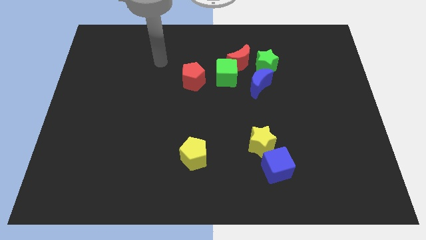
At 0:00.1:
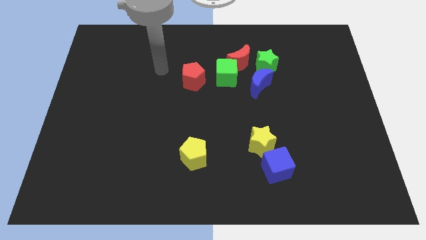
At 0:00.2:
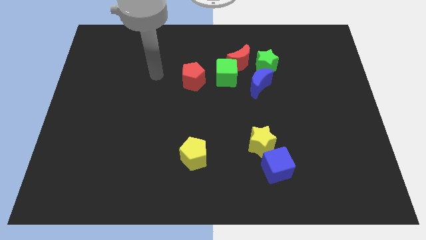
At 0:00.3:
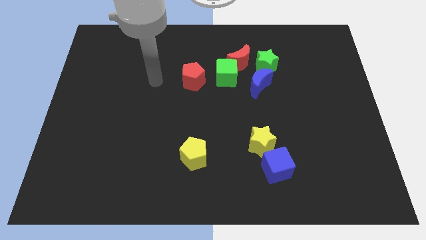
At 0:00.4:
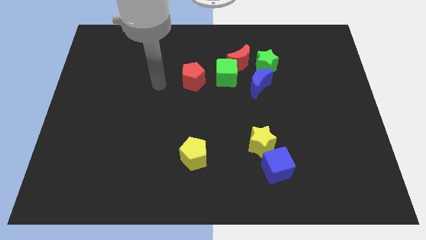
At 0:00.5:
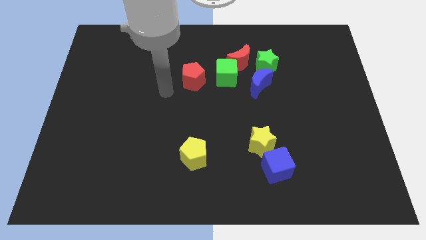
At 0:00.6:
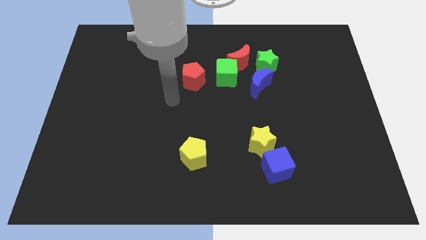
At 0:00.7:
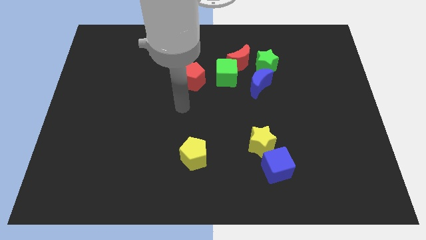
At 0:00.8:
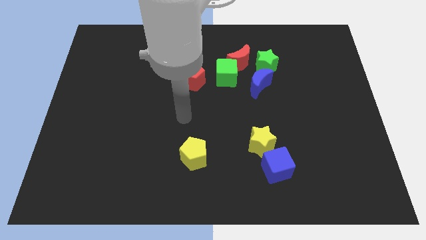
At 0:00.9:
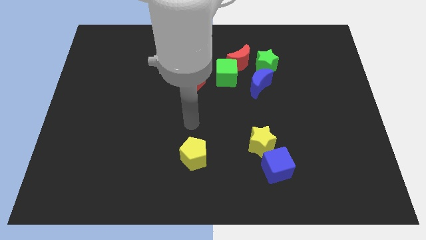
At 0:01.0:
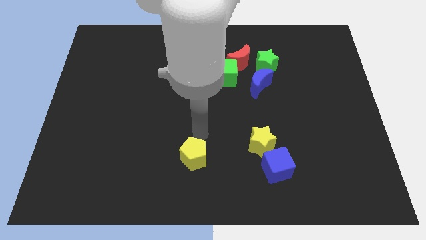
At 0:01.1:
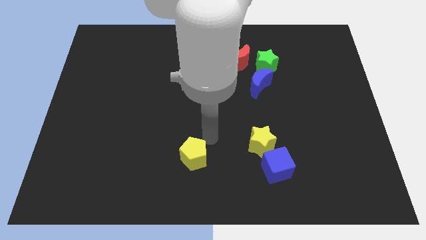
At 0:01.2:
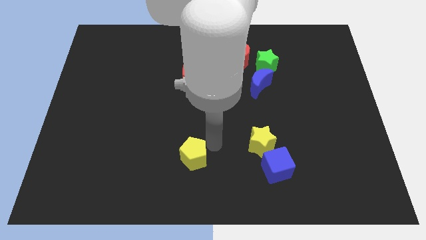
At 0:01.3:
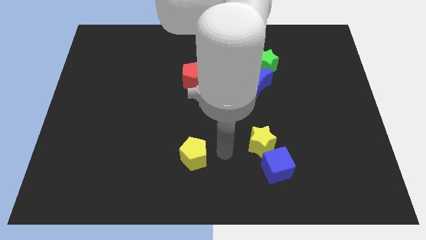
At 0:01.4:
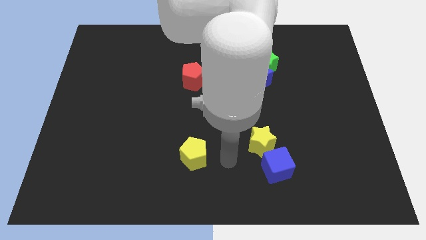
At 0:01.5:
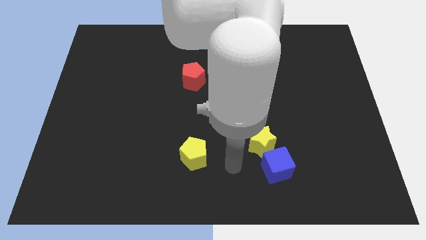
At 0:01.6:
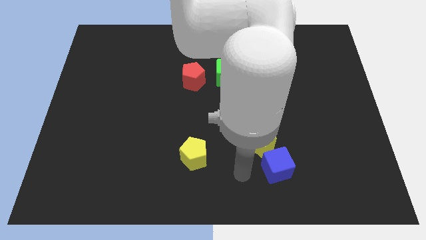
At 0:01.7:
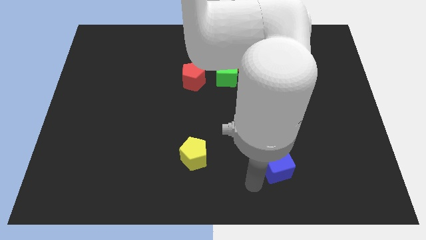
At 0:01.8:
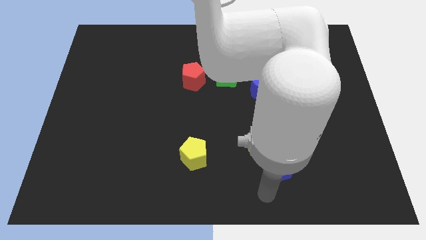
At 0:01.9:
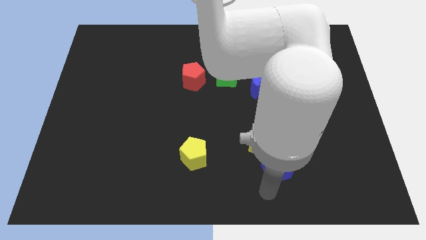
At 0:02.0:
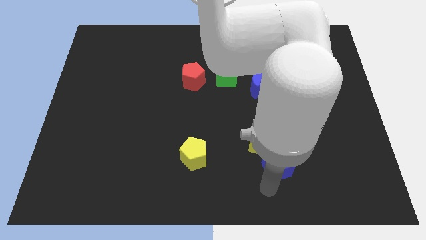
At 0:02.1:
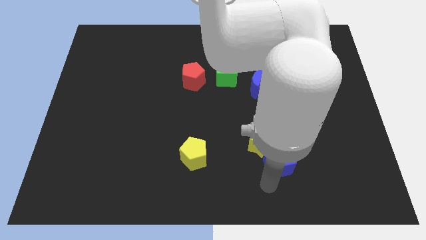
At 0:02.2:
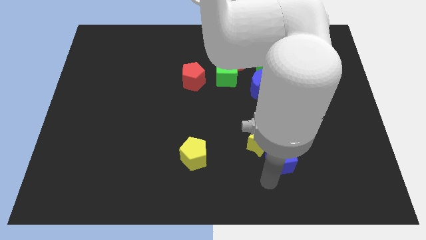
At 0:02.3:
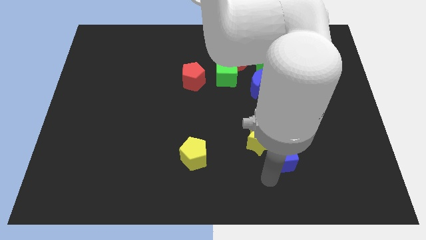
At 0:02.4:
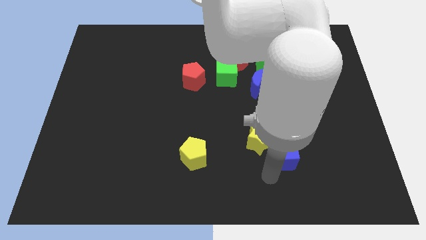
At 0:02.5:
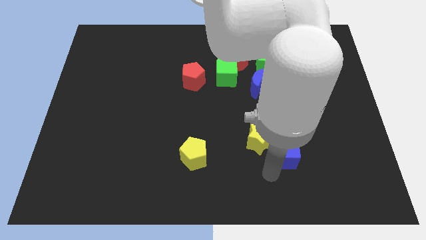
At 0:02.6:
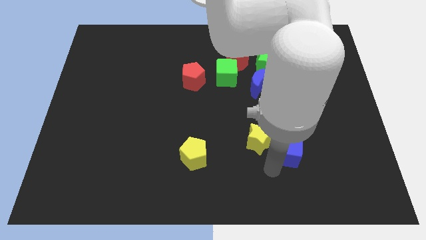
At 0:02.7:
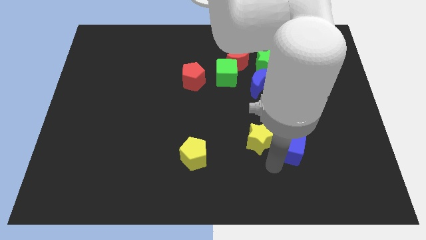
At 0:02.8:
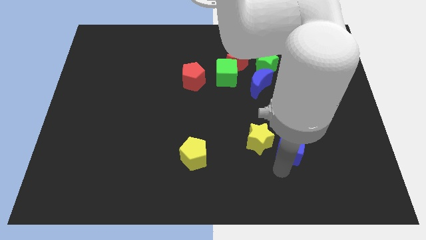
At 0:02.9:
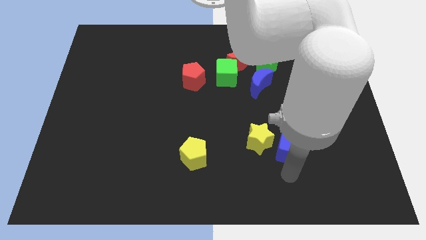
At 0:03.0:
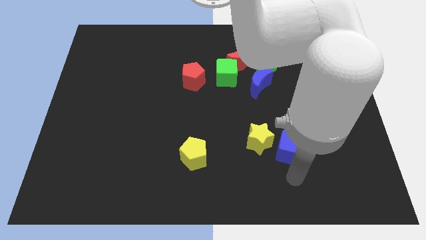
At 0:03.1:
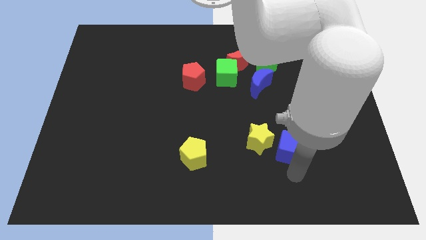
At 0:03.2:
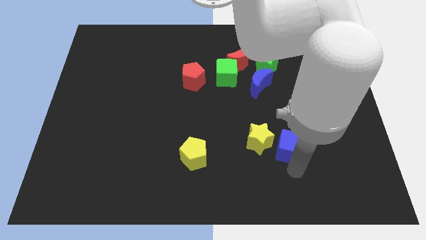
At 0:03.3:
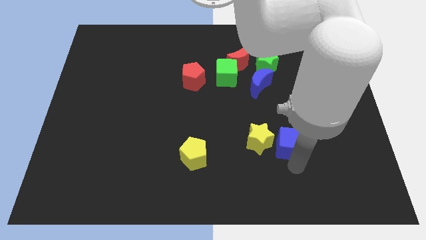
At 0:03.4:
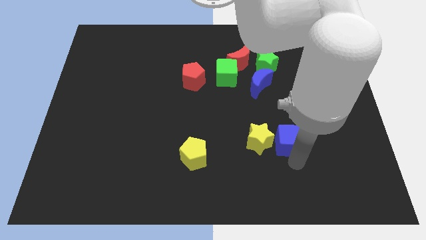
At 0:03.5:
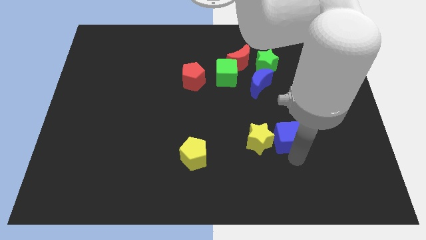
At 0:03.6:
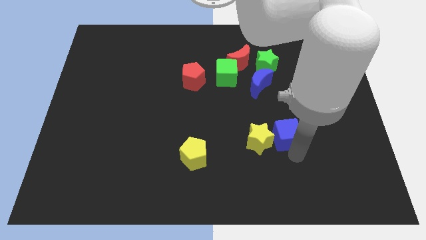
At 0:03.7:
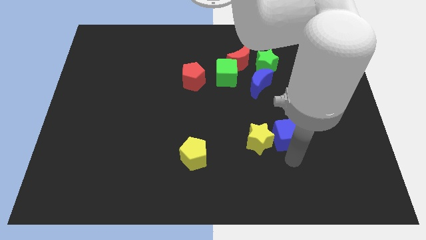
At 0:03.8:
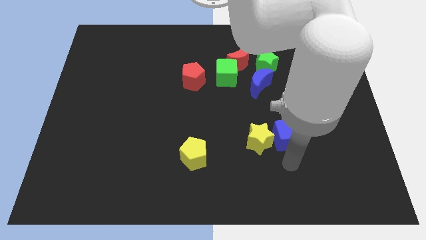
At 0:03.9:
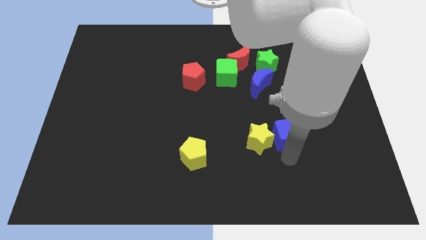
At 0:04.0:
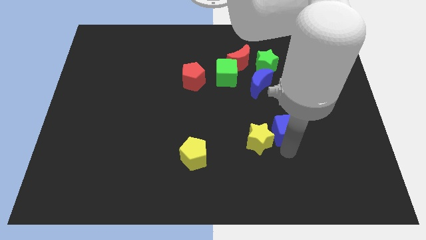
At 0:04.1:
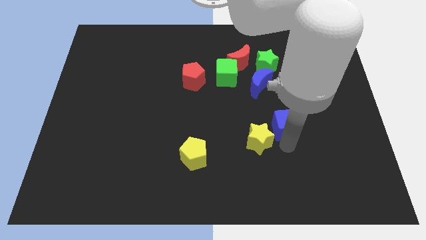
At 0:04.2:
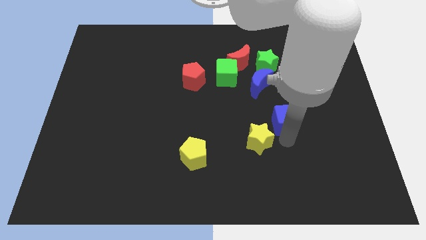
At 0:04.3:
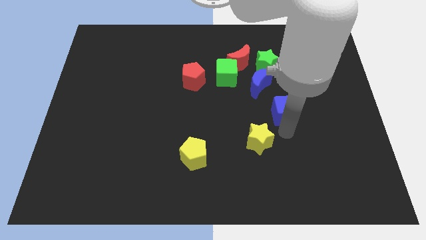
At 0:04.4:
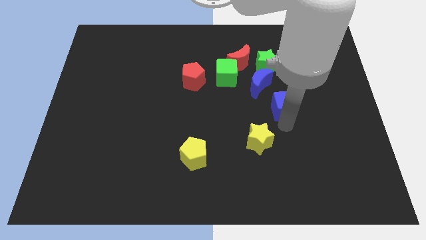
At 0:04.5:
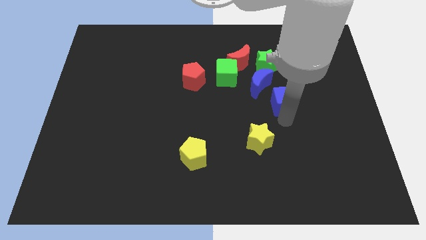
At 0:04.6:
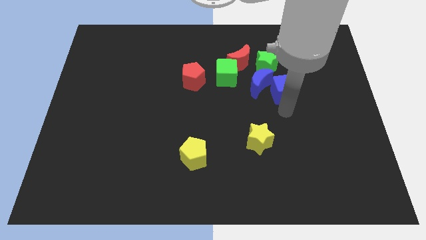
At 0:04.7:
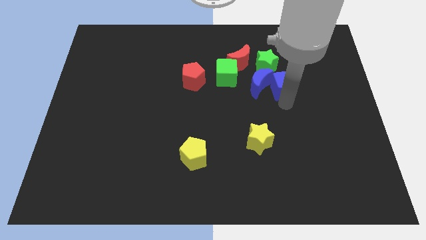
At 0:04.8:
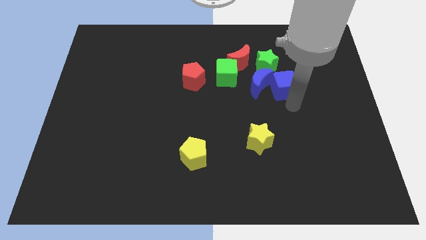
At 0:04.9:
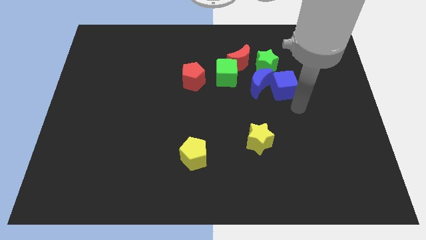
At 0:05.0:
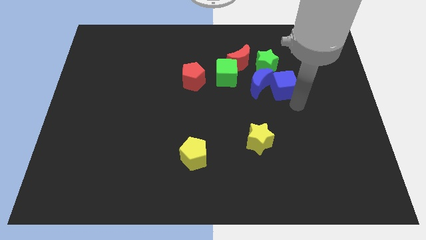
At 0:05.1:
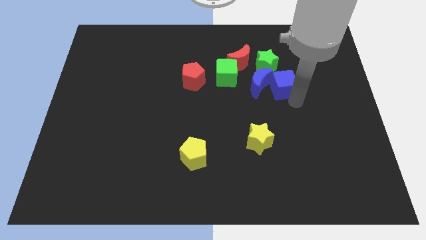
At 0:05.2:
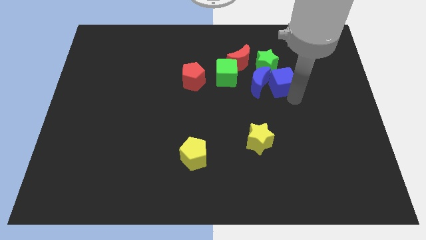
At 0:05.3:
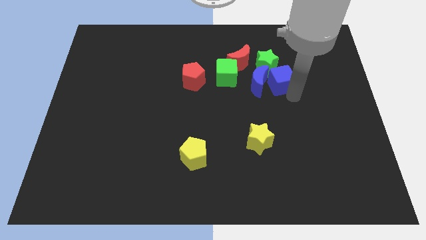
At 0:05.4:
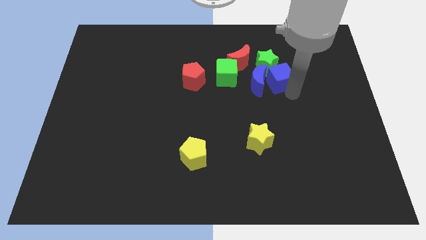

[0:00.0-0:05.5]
slide the blue cube towards the green star

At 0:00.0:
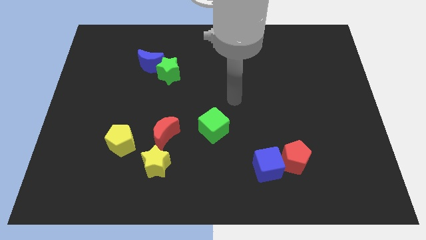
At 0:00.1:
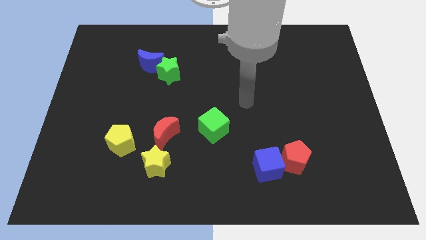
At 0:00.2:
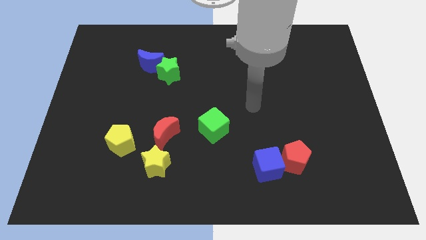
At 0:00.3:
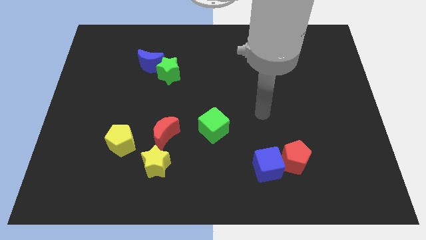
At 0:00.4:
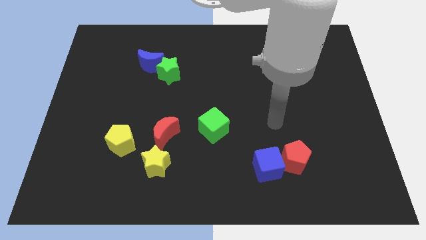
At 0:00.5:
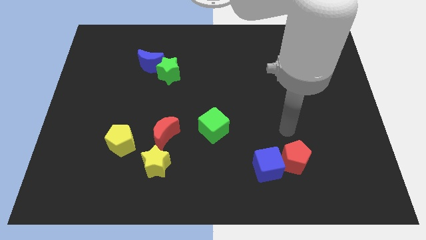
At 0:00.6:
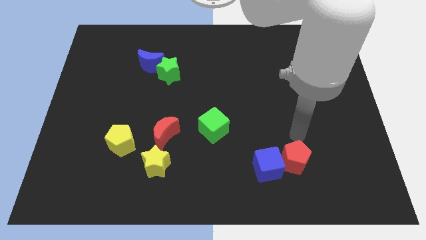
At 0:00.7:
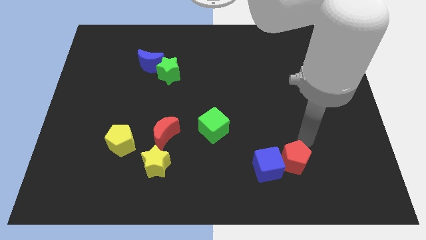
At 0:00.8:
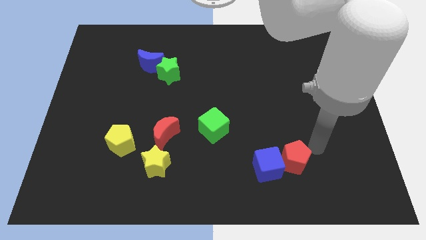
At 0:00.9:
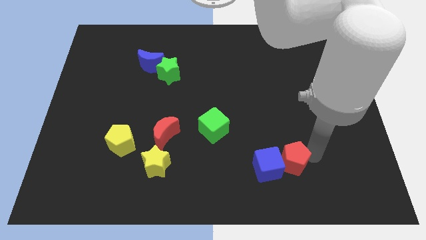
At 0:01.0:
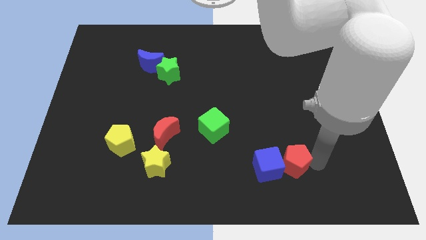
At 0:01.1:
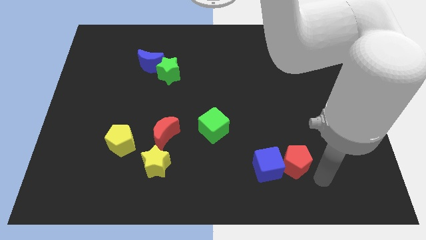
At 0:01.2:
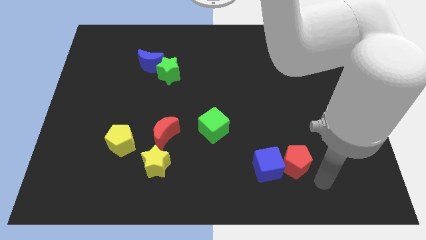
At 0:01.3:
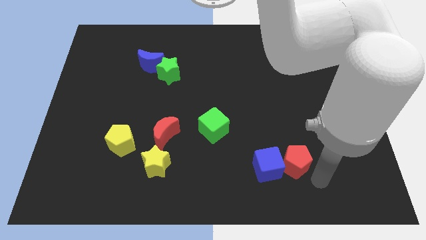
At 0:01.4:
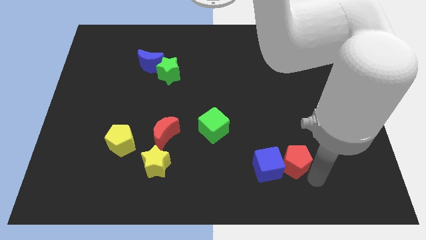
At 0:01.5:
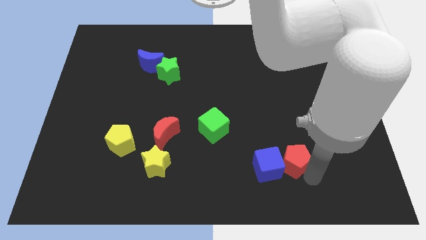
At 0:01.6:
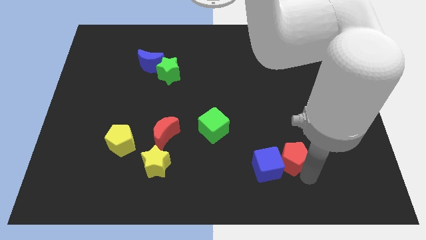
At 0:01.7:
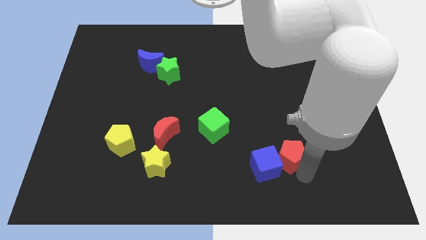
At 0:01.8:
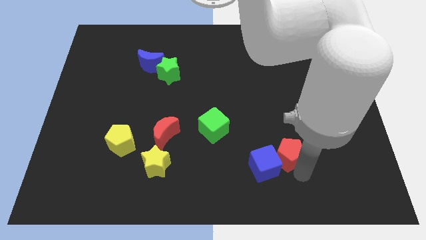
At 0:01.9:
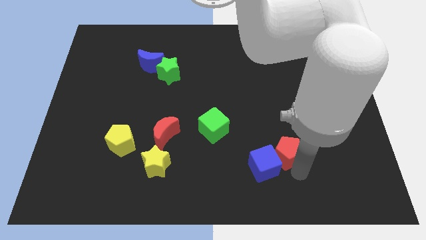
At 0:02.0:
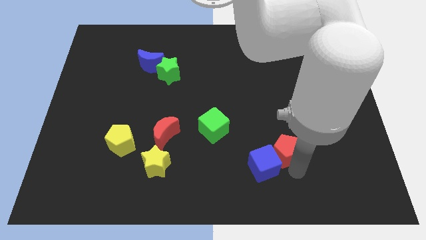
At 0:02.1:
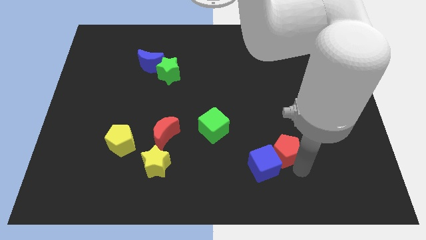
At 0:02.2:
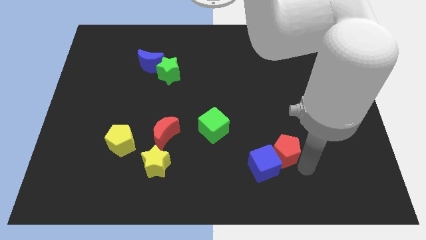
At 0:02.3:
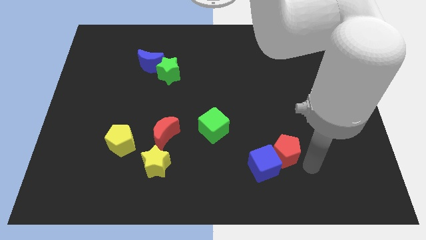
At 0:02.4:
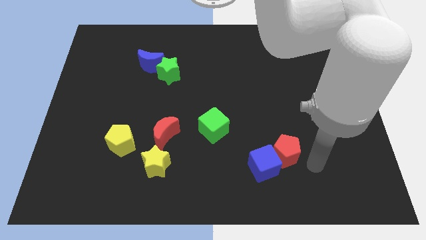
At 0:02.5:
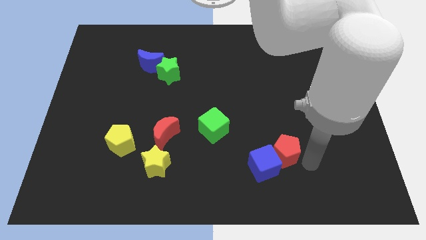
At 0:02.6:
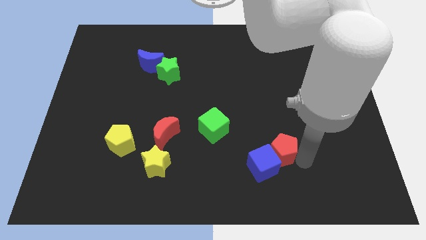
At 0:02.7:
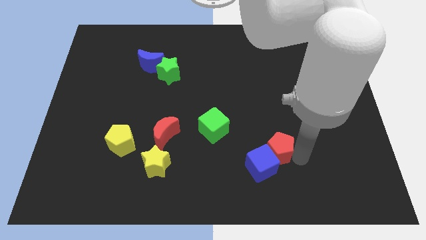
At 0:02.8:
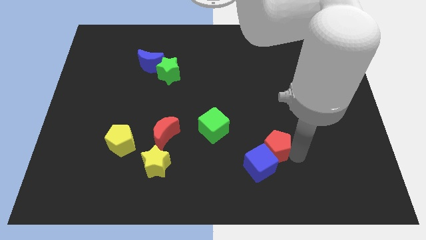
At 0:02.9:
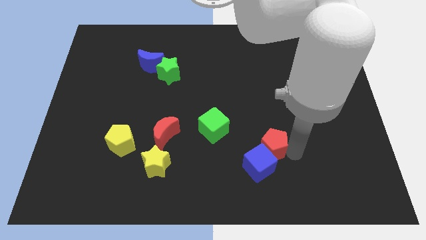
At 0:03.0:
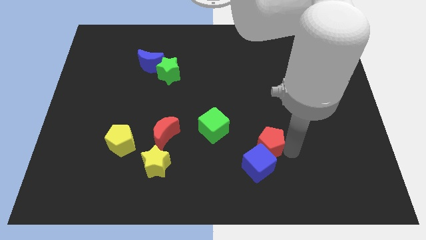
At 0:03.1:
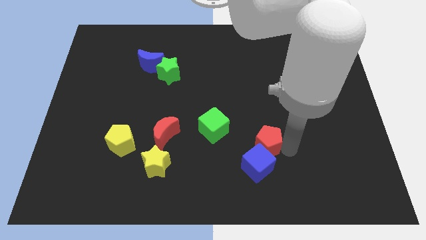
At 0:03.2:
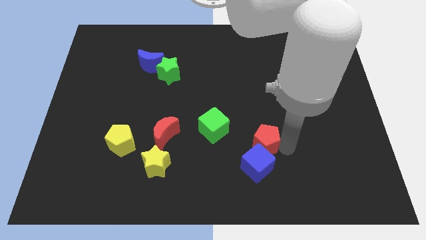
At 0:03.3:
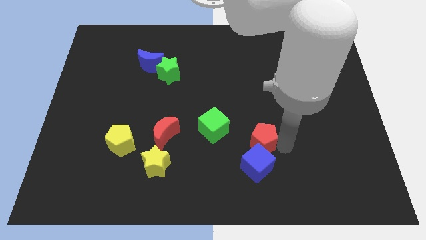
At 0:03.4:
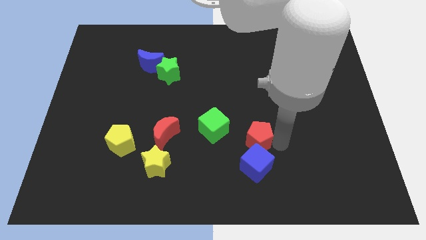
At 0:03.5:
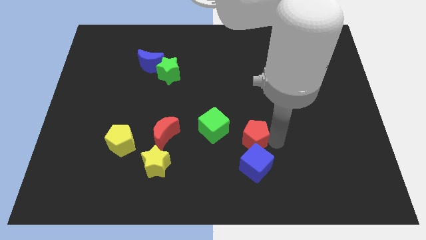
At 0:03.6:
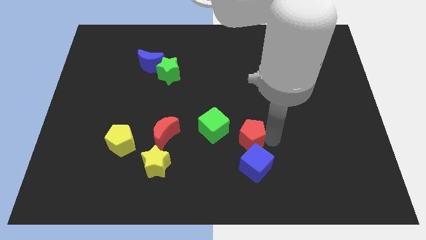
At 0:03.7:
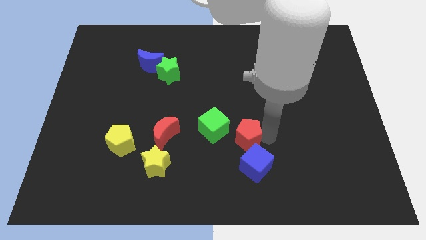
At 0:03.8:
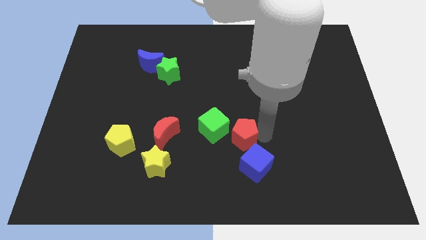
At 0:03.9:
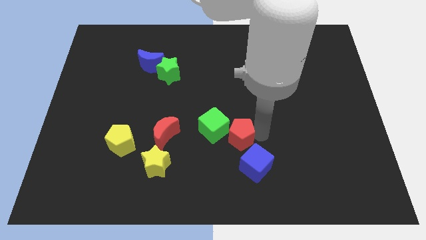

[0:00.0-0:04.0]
slide the red pentagon towards the green cube
